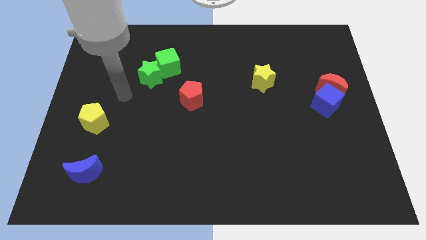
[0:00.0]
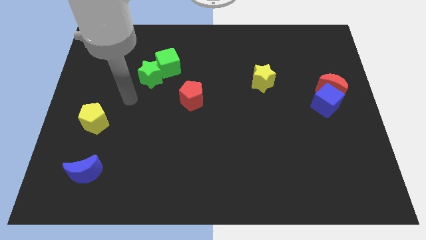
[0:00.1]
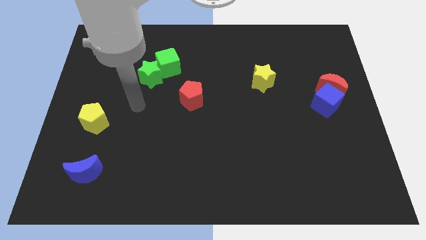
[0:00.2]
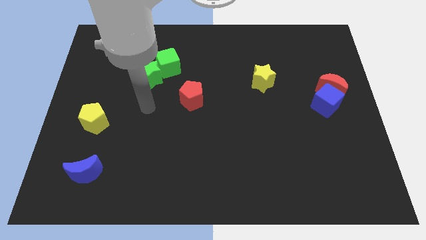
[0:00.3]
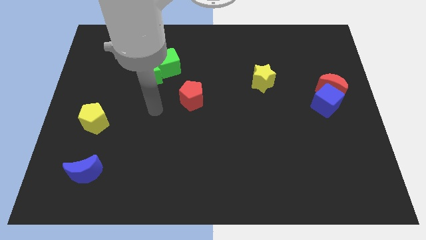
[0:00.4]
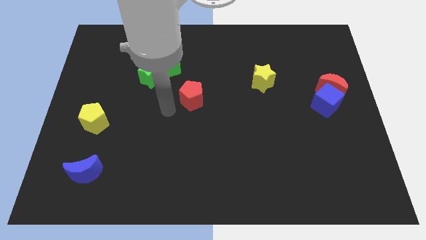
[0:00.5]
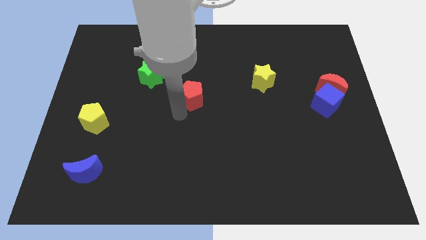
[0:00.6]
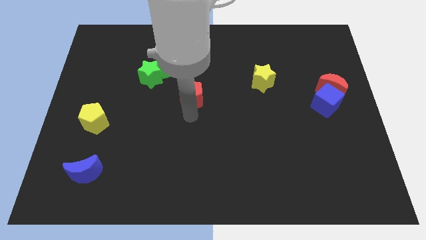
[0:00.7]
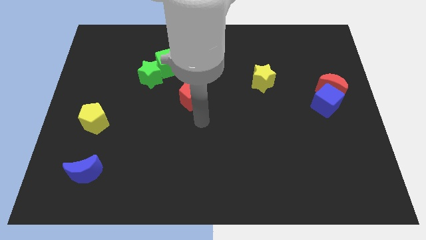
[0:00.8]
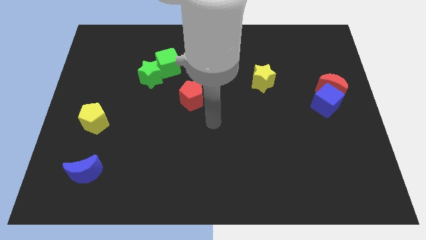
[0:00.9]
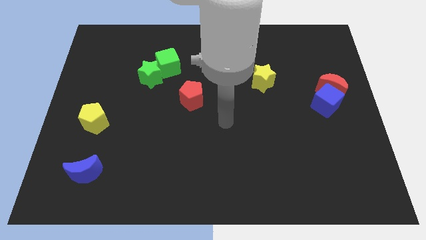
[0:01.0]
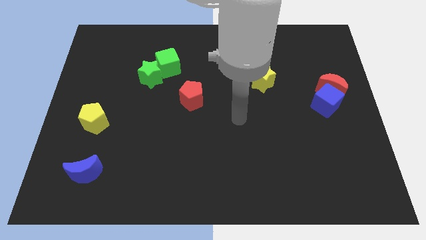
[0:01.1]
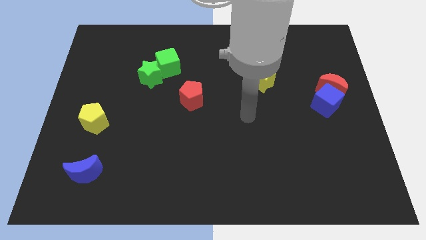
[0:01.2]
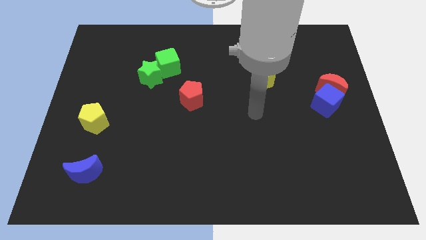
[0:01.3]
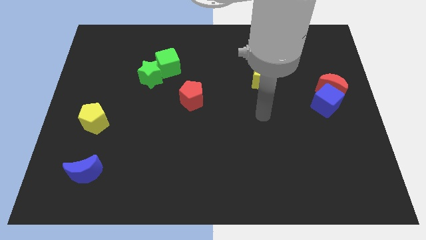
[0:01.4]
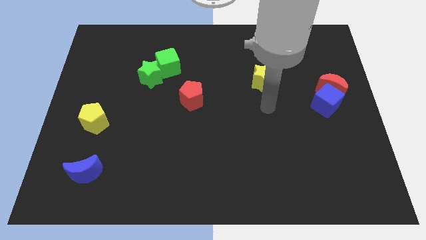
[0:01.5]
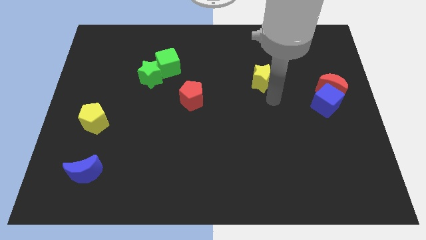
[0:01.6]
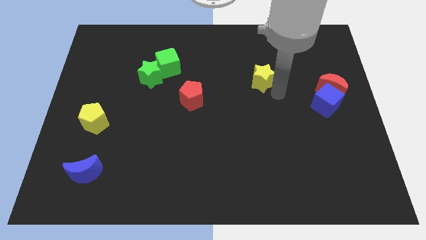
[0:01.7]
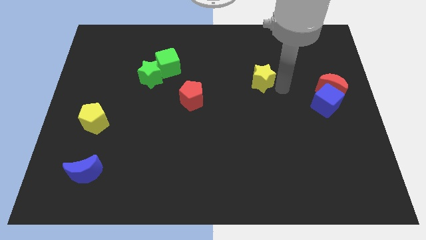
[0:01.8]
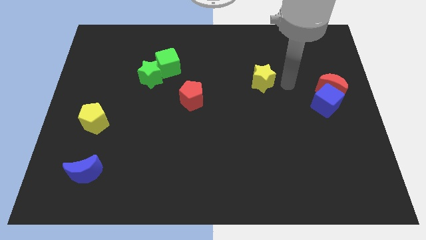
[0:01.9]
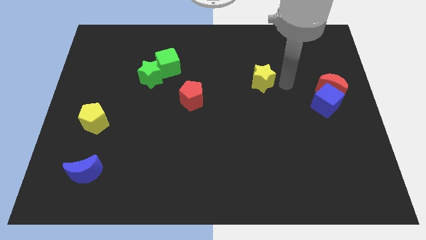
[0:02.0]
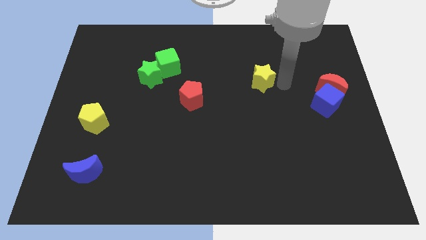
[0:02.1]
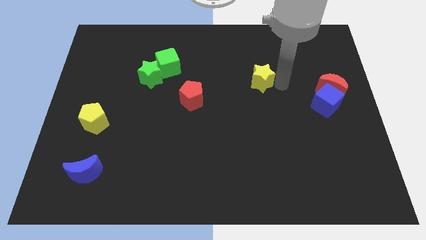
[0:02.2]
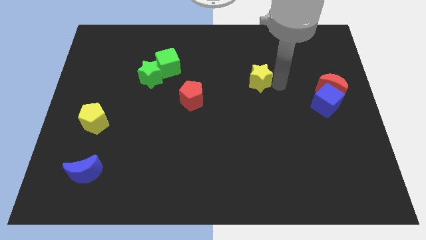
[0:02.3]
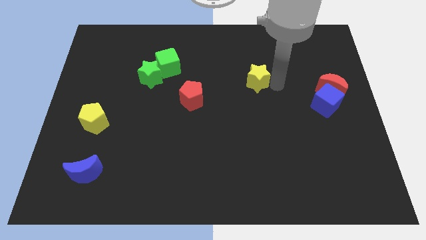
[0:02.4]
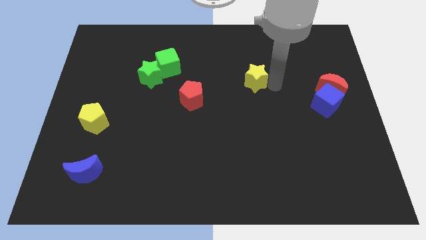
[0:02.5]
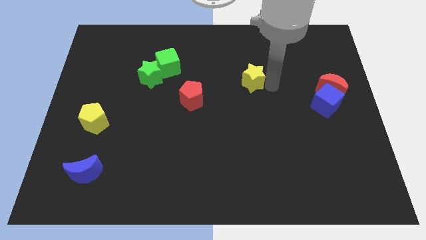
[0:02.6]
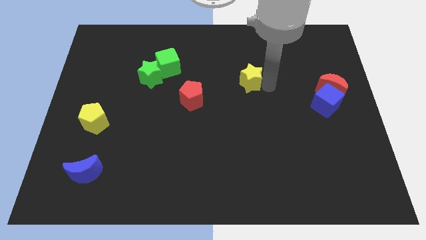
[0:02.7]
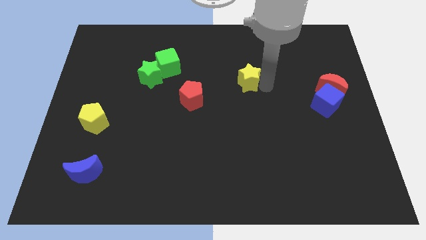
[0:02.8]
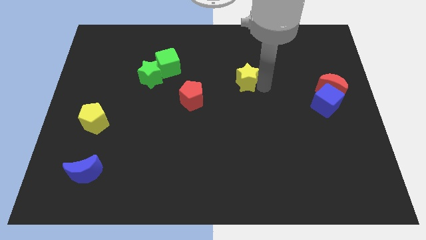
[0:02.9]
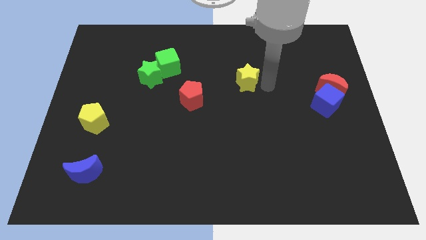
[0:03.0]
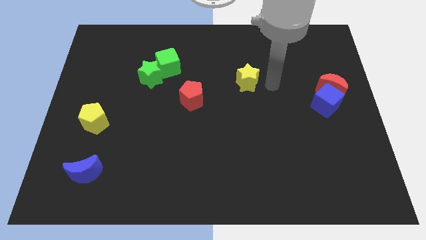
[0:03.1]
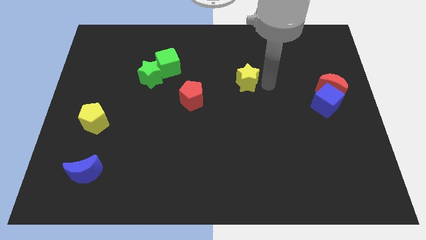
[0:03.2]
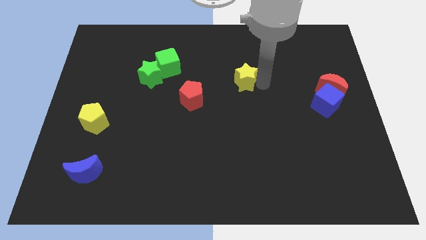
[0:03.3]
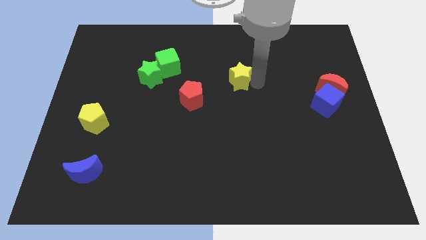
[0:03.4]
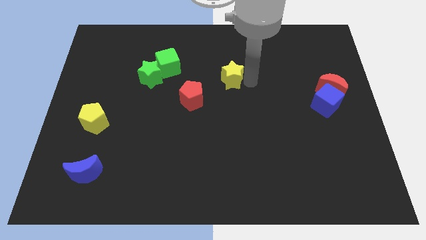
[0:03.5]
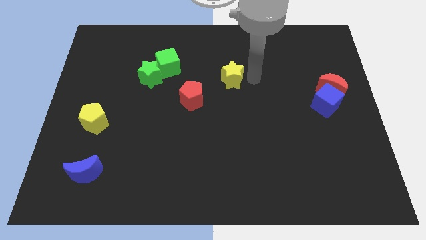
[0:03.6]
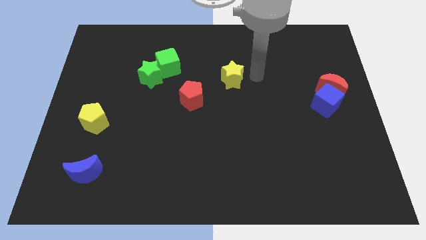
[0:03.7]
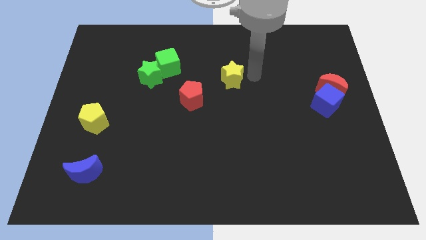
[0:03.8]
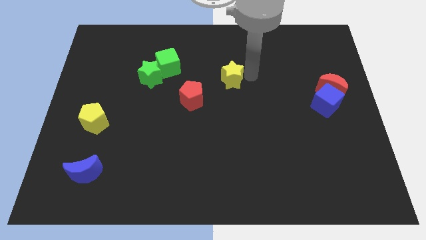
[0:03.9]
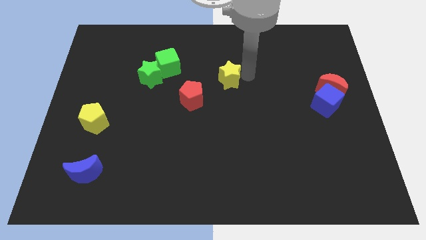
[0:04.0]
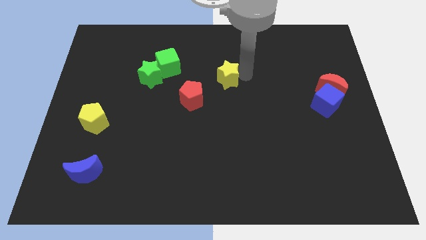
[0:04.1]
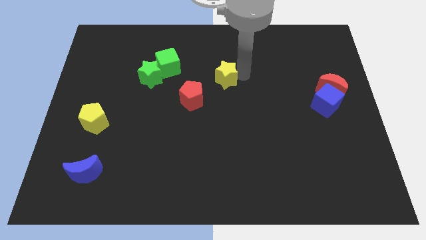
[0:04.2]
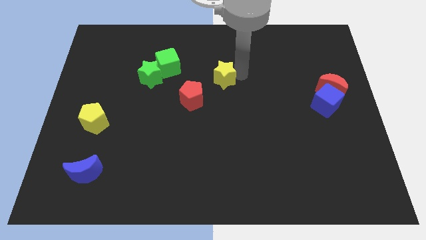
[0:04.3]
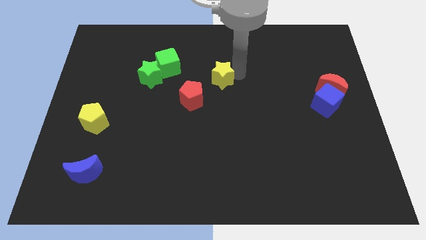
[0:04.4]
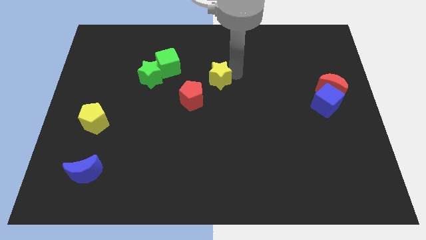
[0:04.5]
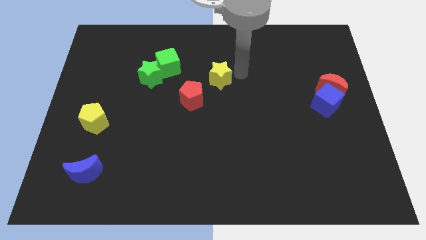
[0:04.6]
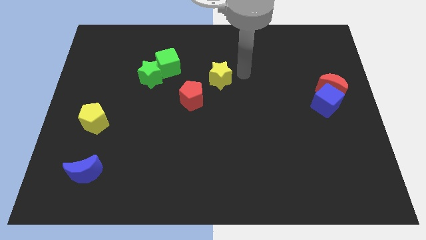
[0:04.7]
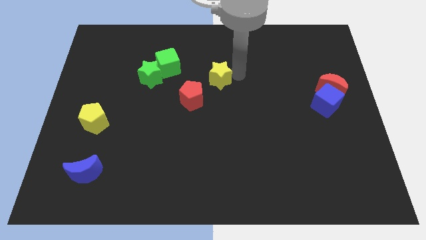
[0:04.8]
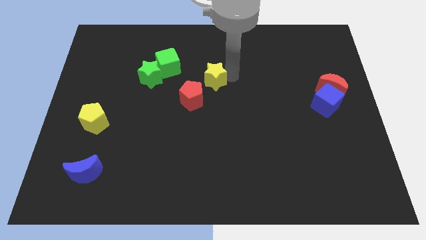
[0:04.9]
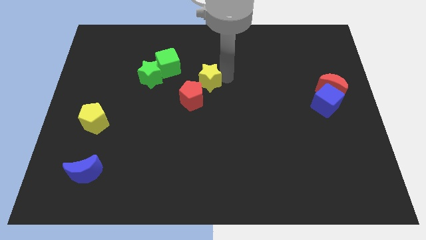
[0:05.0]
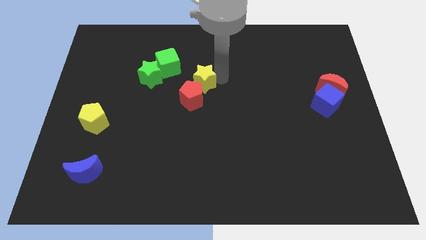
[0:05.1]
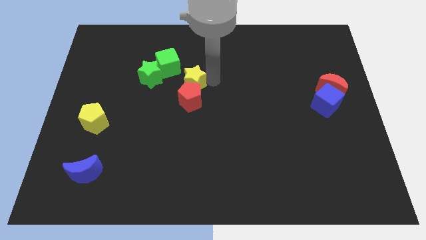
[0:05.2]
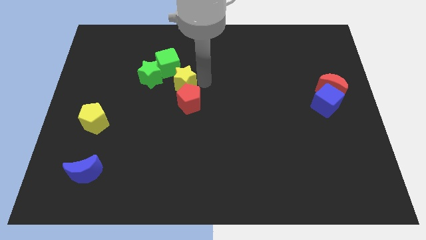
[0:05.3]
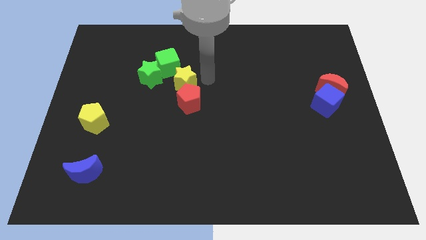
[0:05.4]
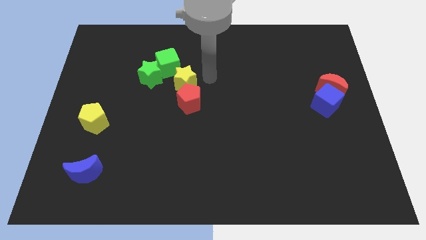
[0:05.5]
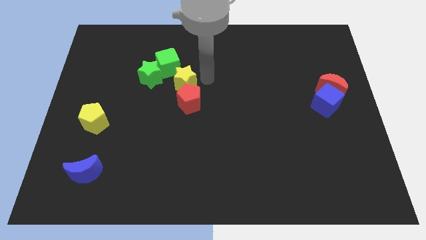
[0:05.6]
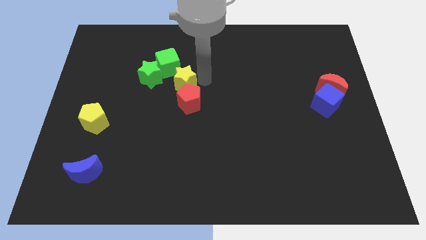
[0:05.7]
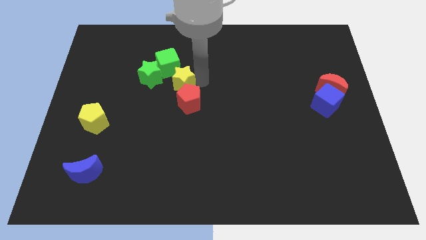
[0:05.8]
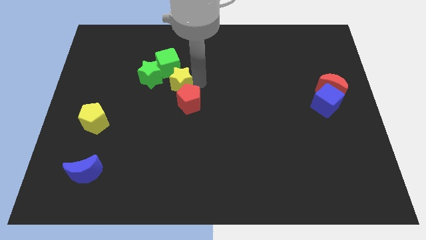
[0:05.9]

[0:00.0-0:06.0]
push the yellow star to the left

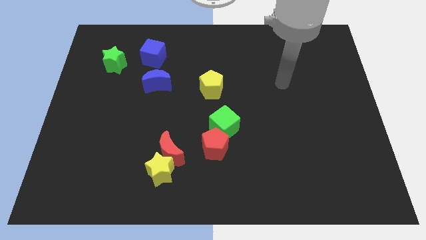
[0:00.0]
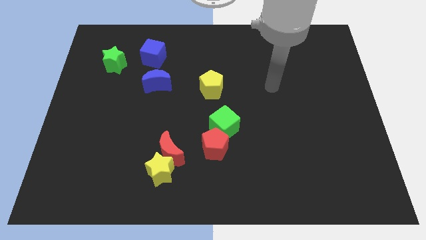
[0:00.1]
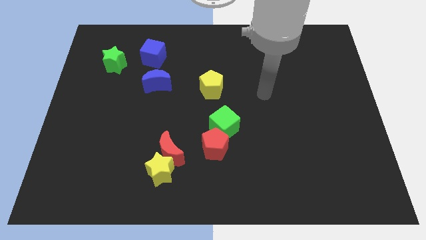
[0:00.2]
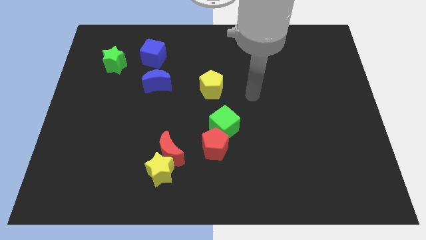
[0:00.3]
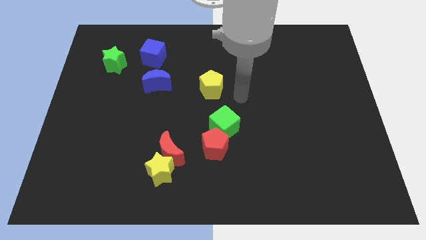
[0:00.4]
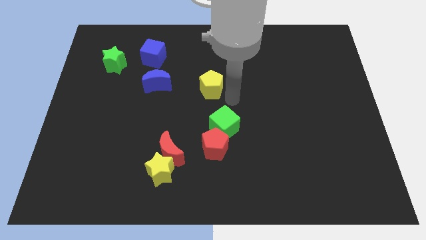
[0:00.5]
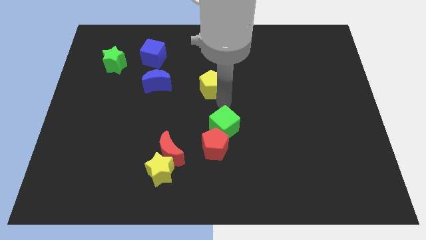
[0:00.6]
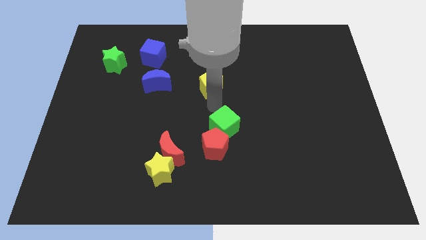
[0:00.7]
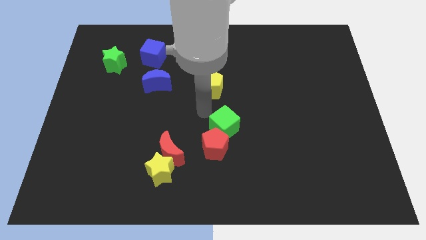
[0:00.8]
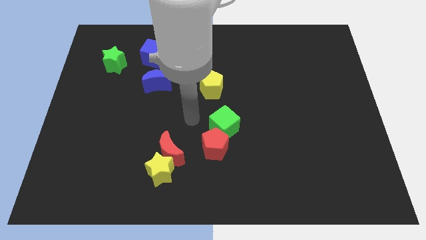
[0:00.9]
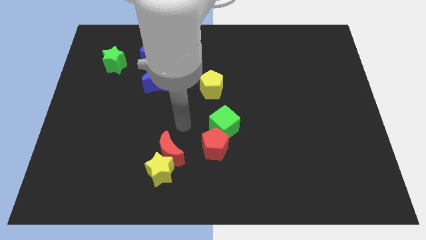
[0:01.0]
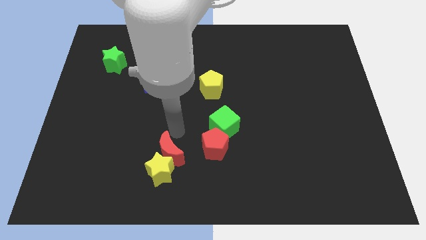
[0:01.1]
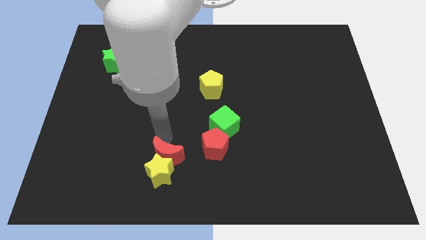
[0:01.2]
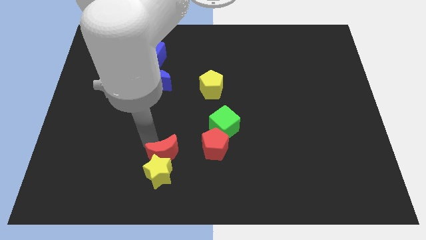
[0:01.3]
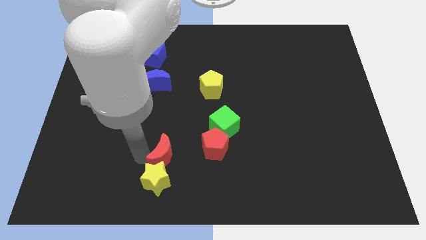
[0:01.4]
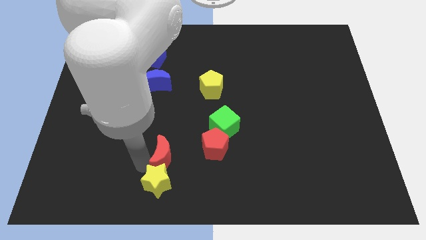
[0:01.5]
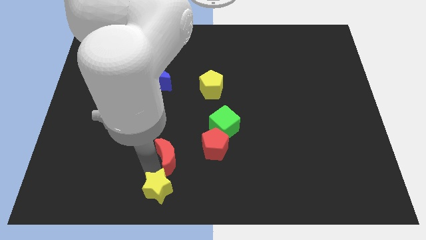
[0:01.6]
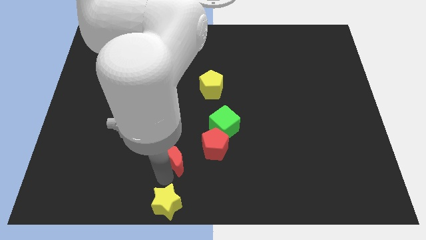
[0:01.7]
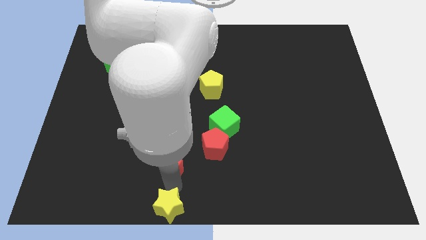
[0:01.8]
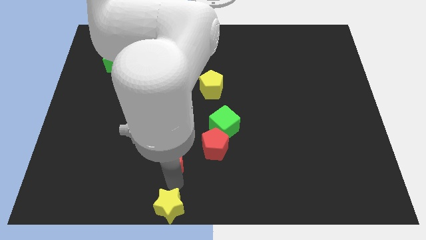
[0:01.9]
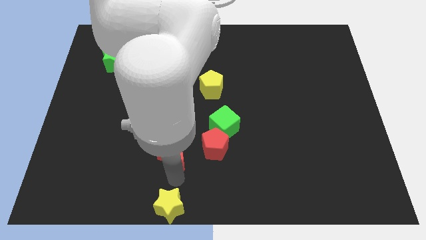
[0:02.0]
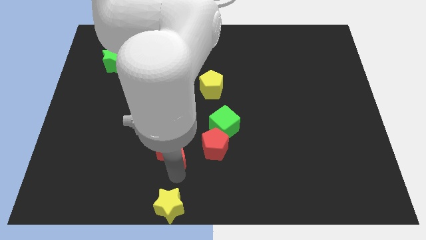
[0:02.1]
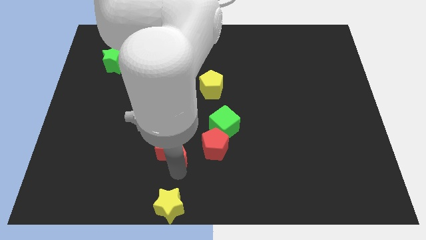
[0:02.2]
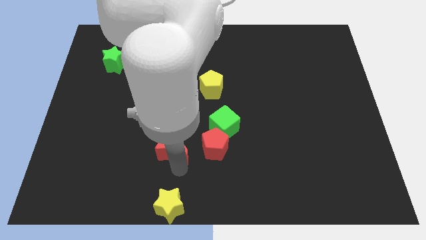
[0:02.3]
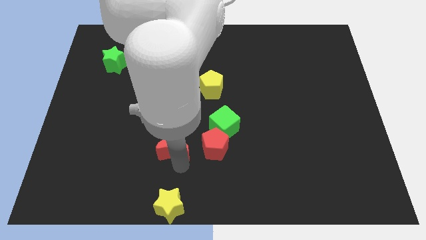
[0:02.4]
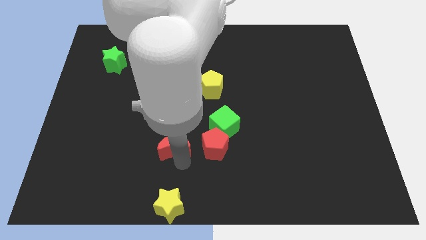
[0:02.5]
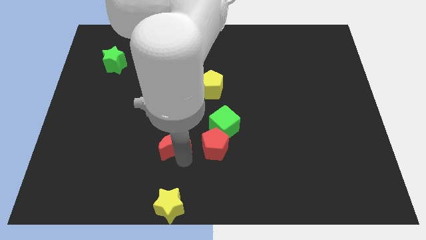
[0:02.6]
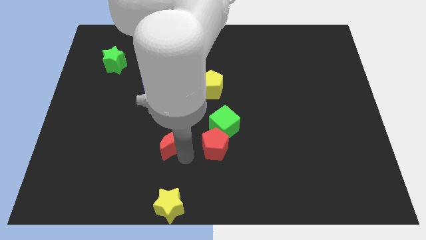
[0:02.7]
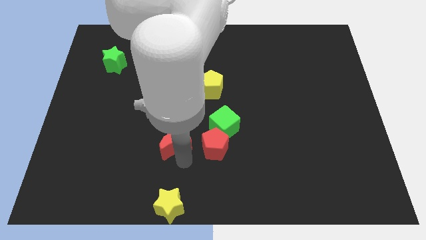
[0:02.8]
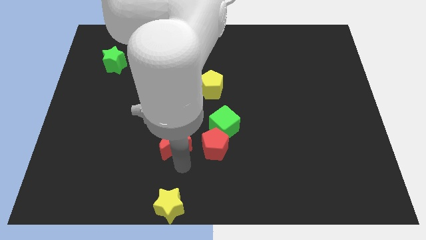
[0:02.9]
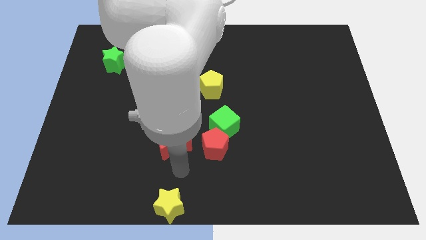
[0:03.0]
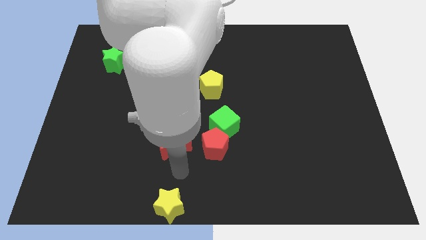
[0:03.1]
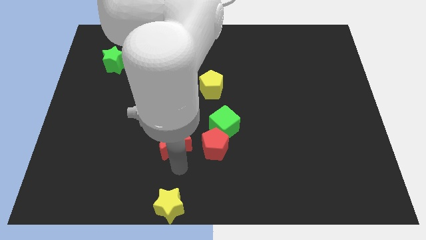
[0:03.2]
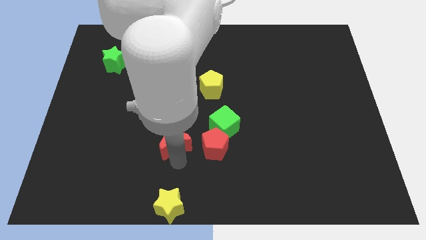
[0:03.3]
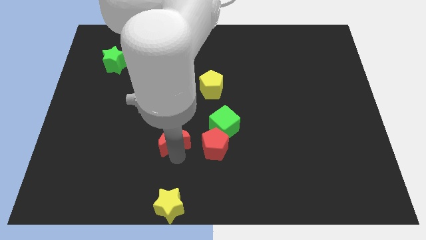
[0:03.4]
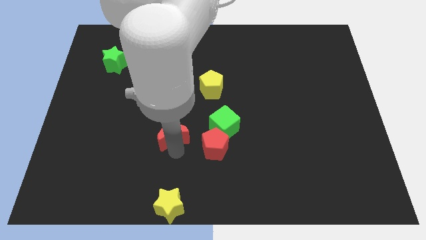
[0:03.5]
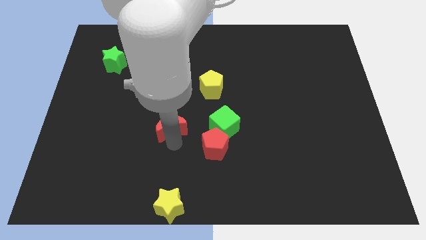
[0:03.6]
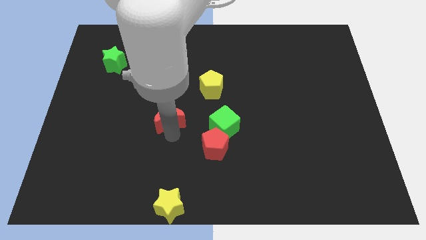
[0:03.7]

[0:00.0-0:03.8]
slightly push the red moon upwards
